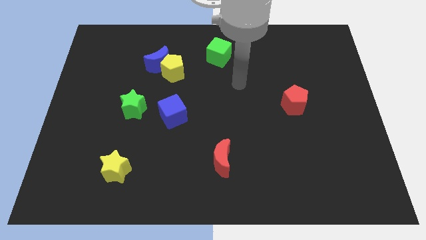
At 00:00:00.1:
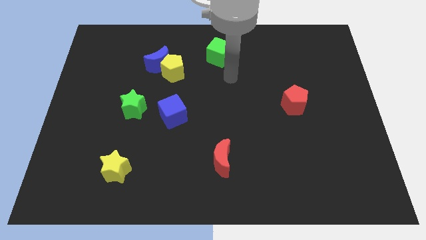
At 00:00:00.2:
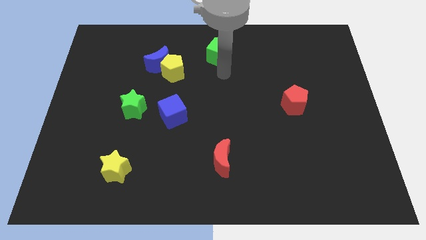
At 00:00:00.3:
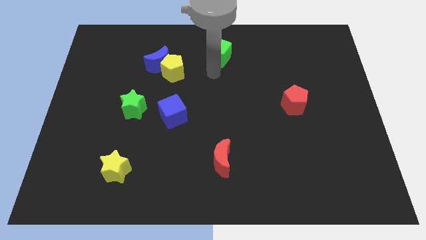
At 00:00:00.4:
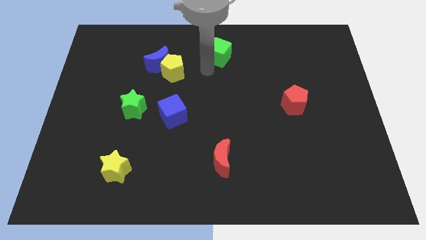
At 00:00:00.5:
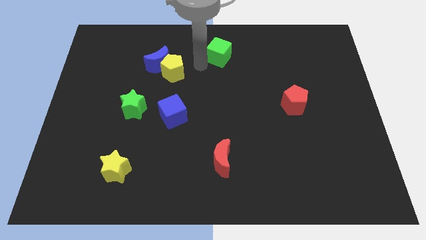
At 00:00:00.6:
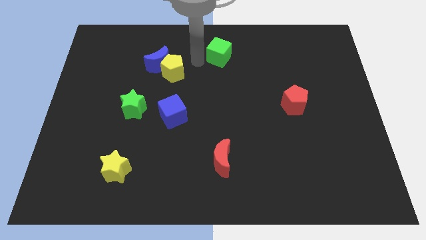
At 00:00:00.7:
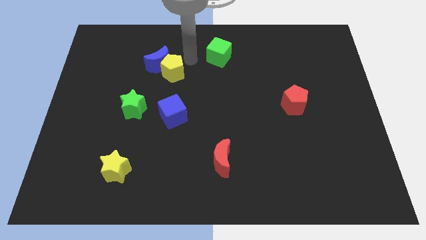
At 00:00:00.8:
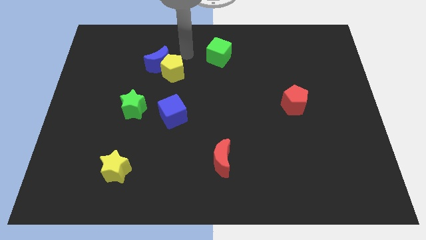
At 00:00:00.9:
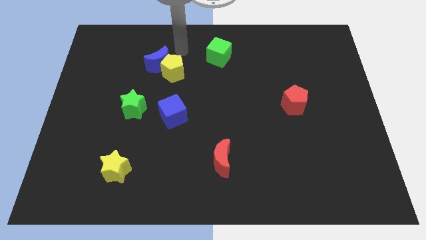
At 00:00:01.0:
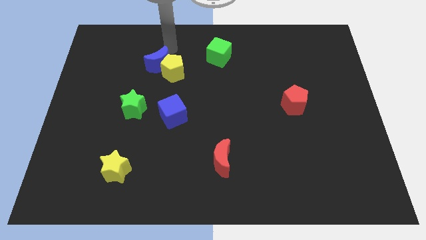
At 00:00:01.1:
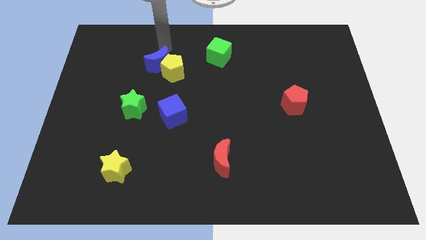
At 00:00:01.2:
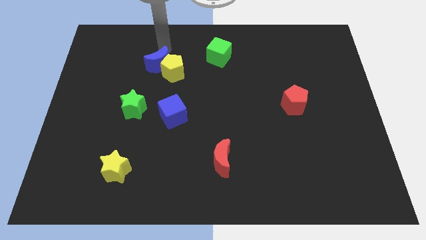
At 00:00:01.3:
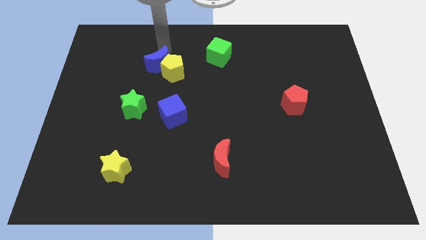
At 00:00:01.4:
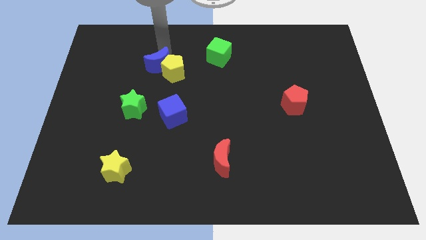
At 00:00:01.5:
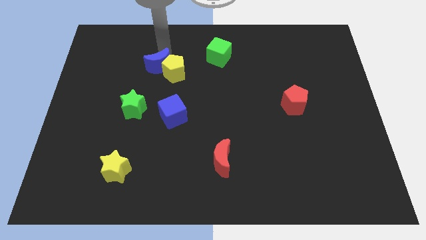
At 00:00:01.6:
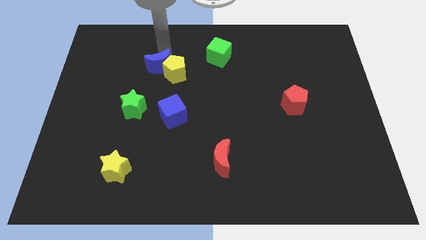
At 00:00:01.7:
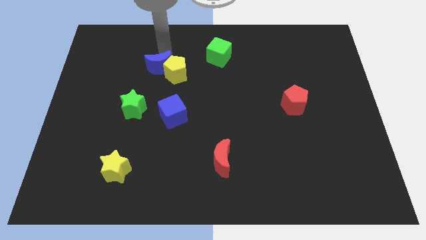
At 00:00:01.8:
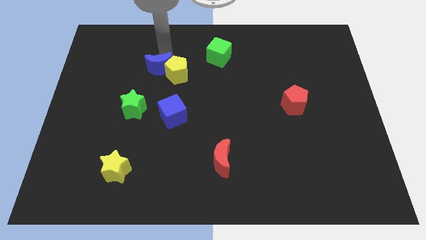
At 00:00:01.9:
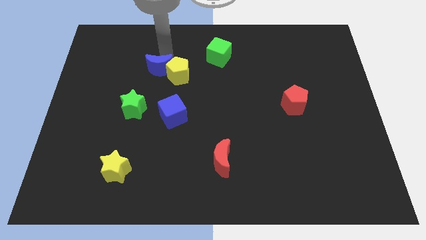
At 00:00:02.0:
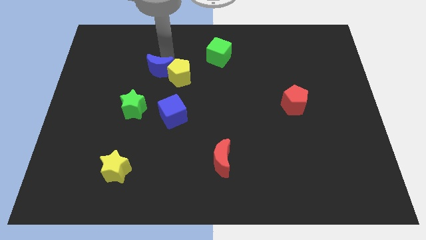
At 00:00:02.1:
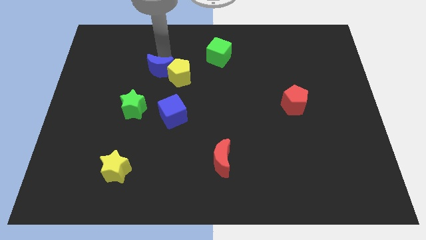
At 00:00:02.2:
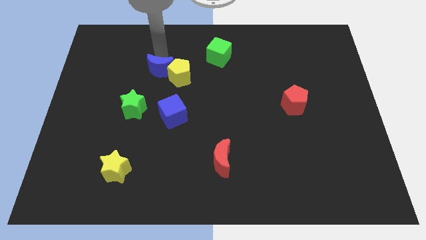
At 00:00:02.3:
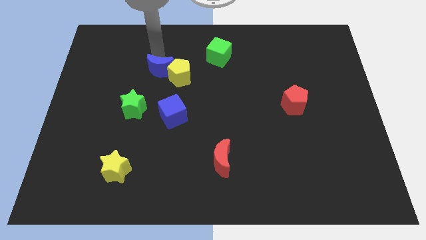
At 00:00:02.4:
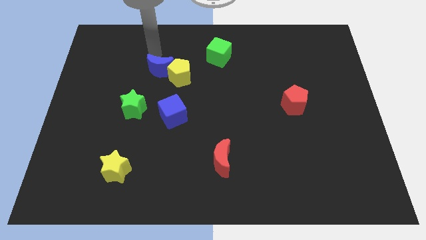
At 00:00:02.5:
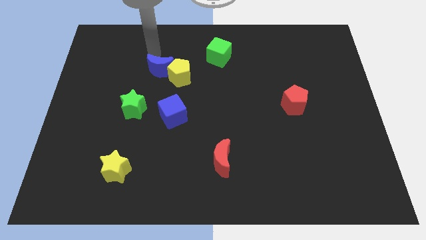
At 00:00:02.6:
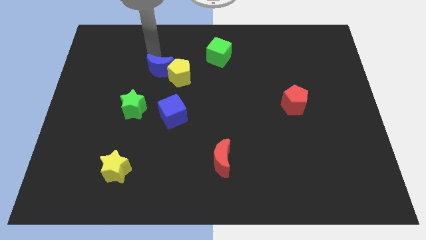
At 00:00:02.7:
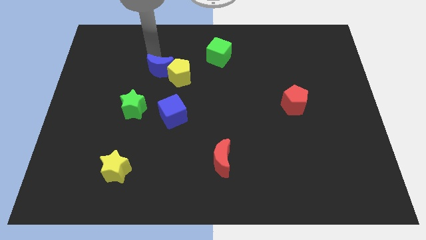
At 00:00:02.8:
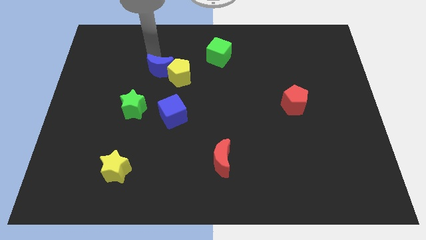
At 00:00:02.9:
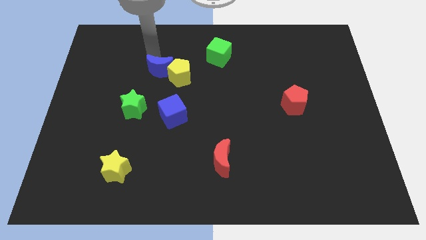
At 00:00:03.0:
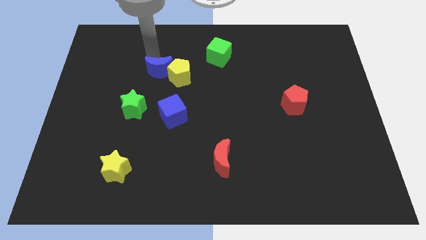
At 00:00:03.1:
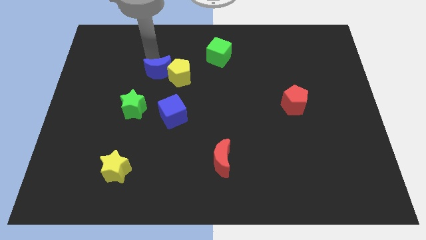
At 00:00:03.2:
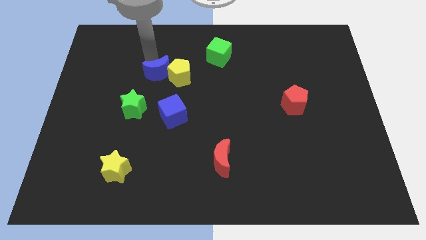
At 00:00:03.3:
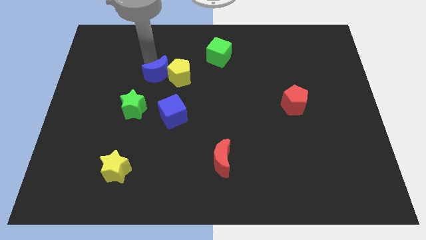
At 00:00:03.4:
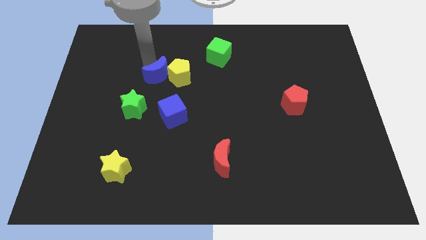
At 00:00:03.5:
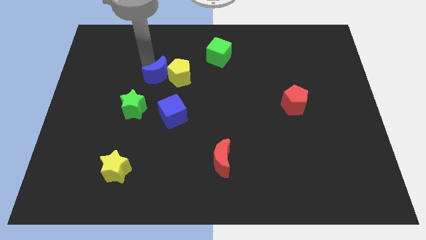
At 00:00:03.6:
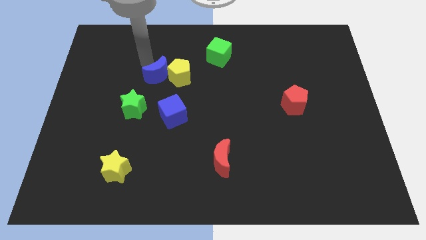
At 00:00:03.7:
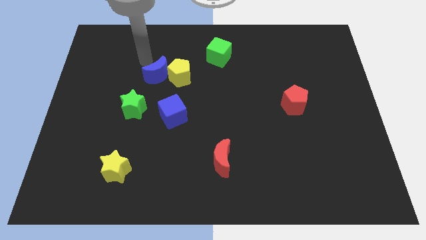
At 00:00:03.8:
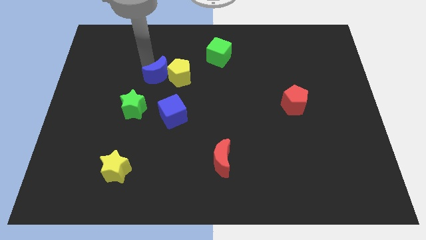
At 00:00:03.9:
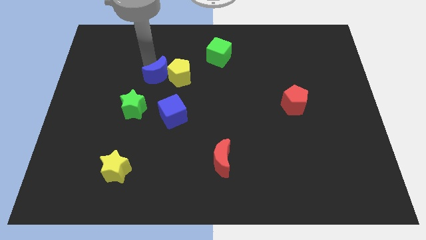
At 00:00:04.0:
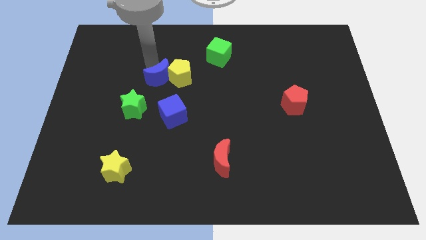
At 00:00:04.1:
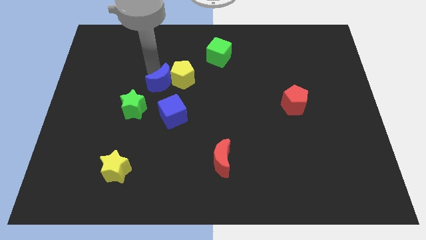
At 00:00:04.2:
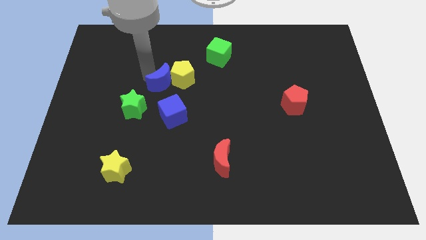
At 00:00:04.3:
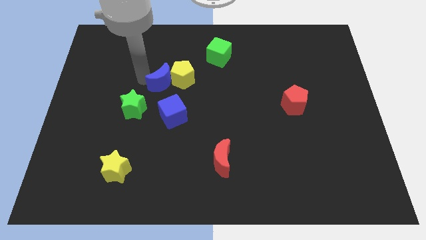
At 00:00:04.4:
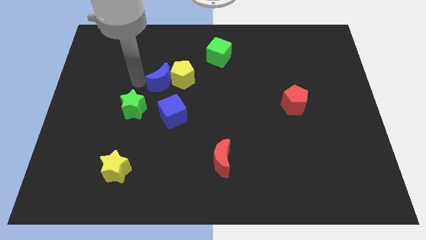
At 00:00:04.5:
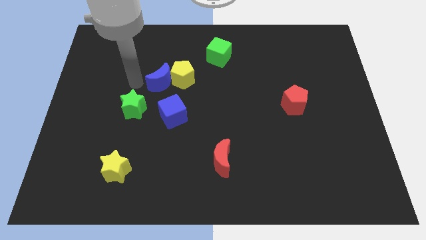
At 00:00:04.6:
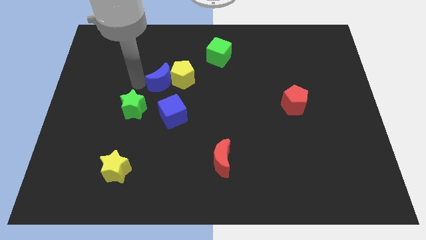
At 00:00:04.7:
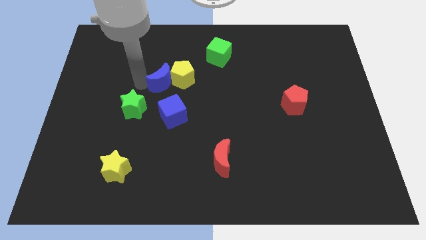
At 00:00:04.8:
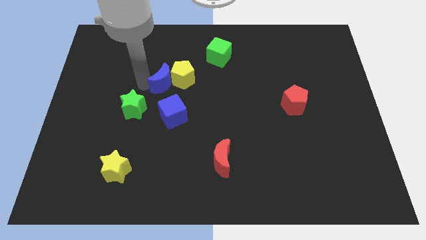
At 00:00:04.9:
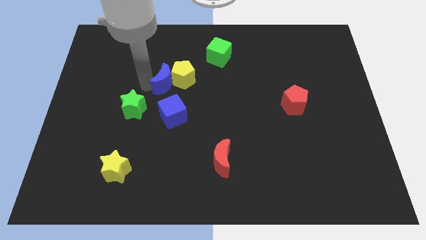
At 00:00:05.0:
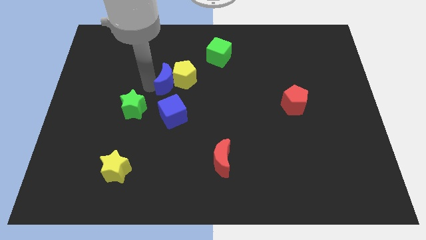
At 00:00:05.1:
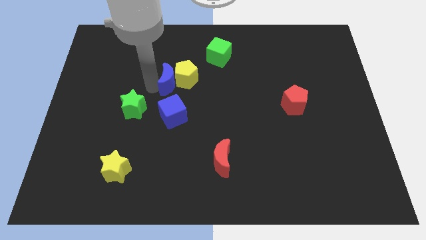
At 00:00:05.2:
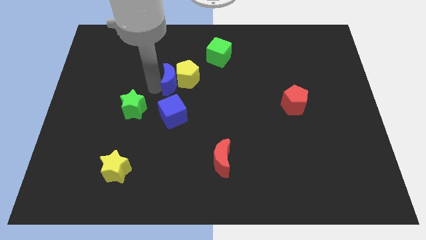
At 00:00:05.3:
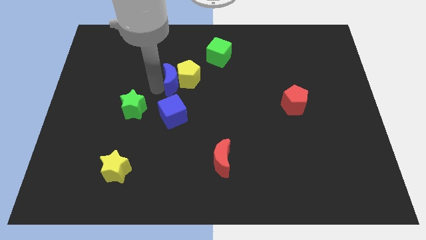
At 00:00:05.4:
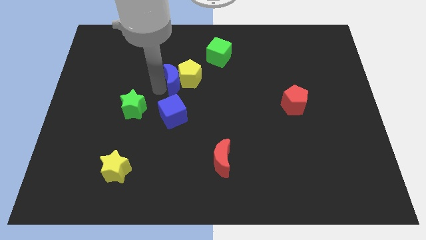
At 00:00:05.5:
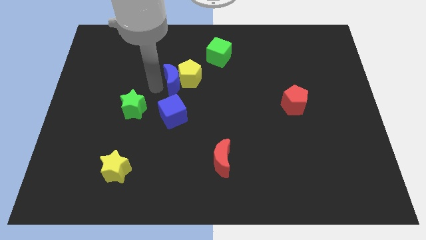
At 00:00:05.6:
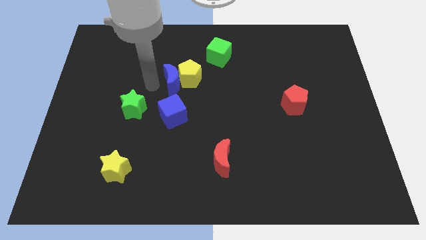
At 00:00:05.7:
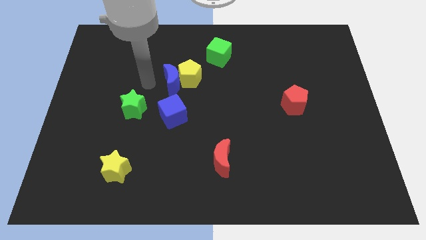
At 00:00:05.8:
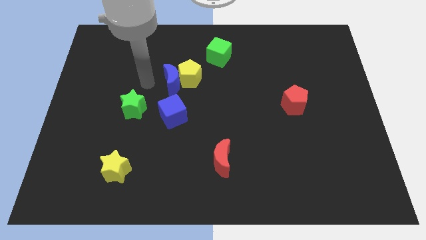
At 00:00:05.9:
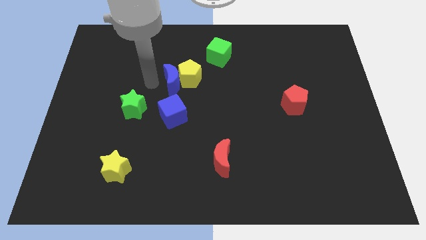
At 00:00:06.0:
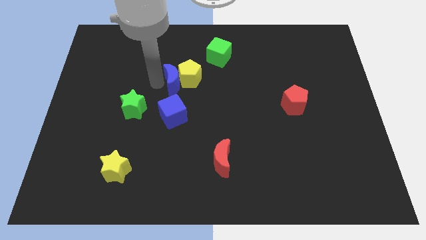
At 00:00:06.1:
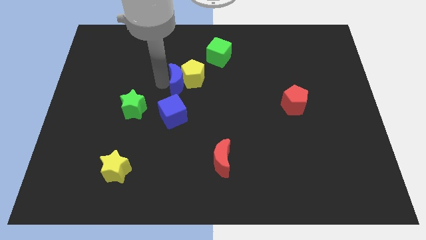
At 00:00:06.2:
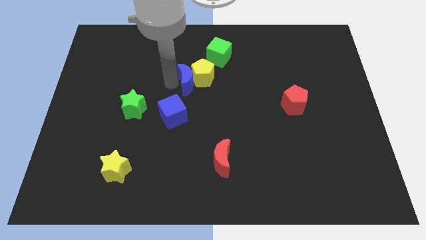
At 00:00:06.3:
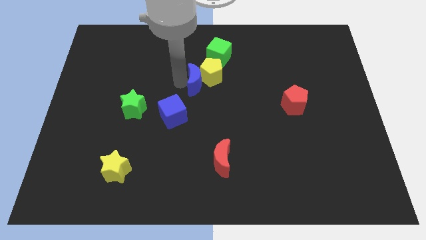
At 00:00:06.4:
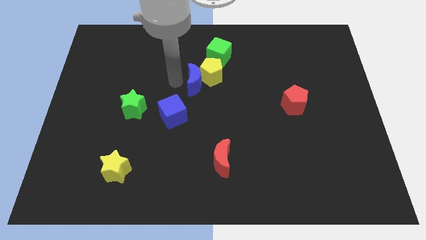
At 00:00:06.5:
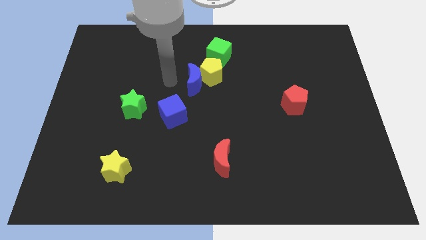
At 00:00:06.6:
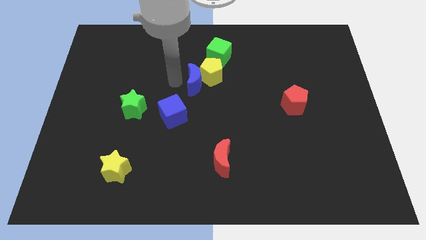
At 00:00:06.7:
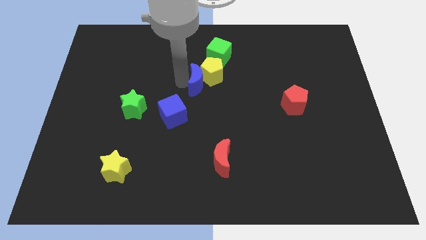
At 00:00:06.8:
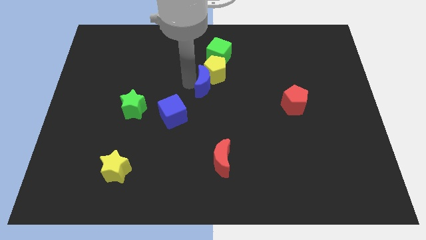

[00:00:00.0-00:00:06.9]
push the blue moon to the bottom of the green cube

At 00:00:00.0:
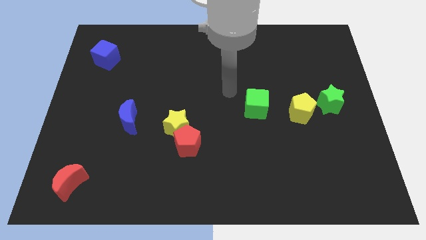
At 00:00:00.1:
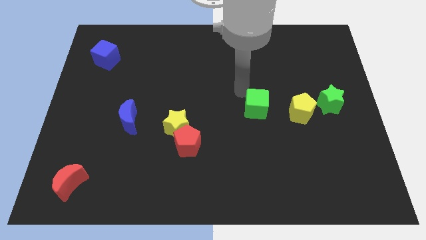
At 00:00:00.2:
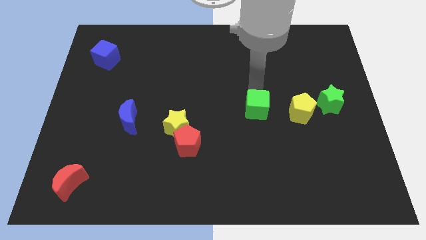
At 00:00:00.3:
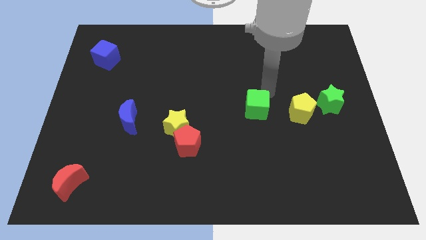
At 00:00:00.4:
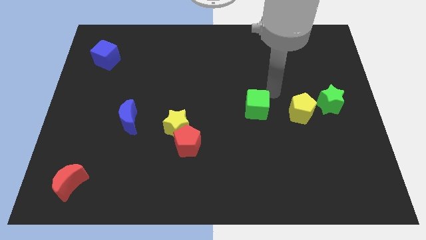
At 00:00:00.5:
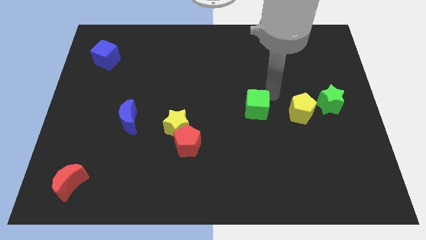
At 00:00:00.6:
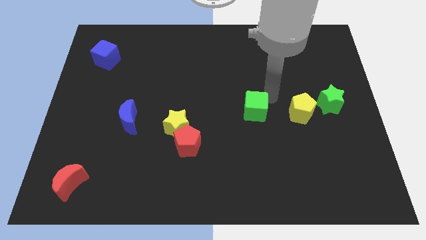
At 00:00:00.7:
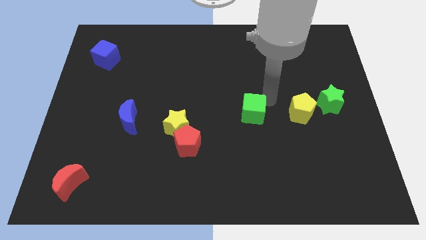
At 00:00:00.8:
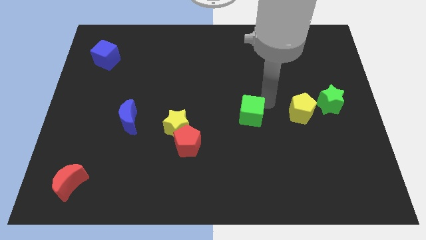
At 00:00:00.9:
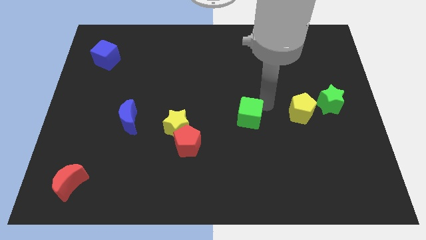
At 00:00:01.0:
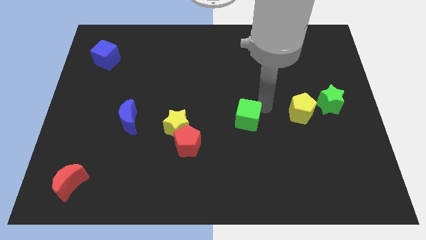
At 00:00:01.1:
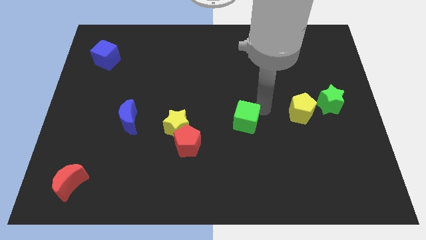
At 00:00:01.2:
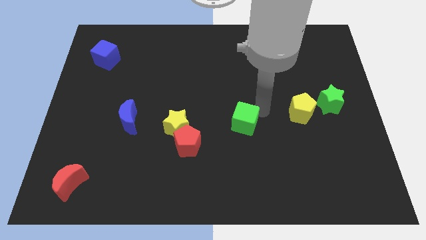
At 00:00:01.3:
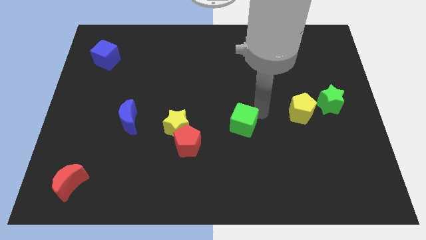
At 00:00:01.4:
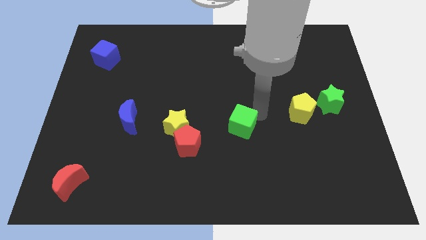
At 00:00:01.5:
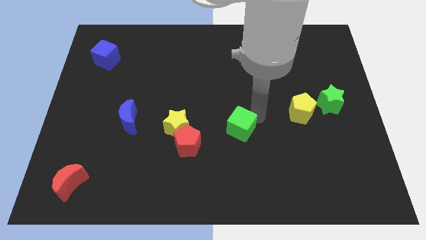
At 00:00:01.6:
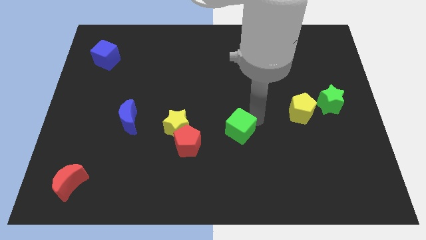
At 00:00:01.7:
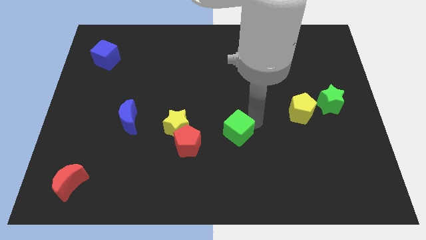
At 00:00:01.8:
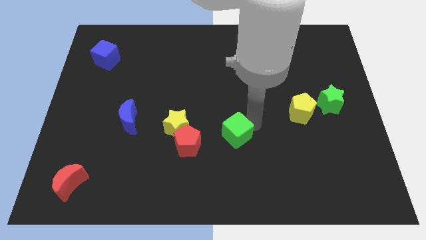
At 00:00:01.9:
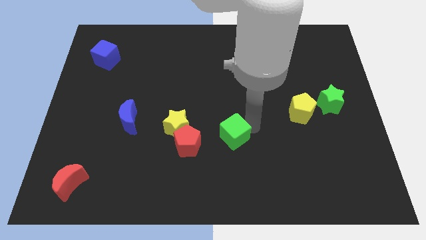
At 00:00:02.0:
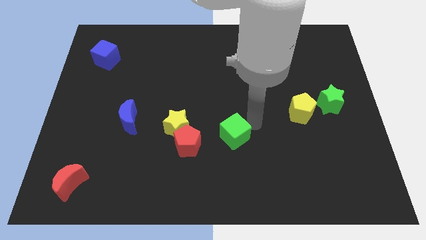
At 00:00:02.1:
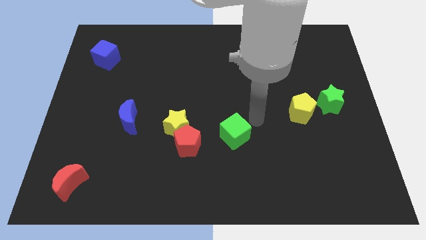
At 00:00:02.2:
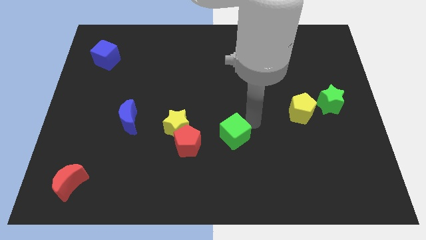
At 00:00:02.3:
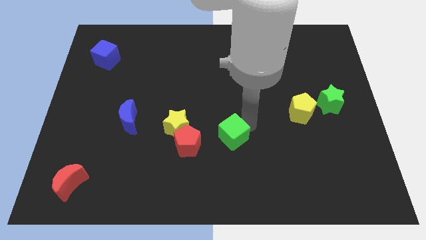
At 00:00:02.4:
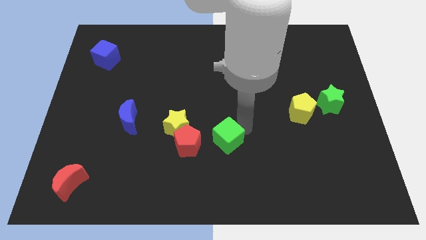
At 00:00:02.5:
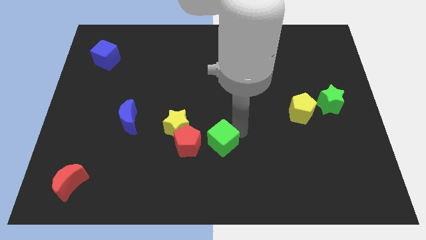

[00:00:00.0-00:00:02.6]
push the green cube to the bottom right of the yellow star
